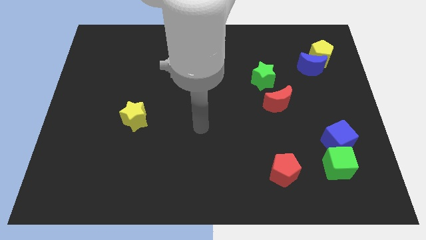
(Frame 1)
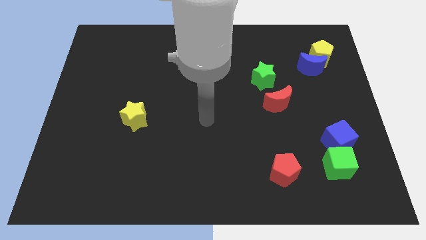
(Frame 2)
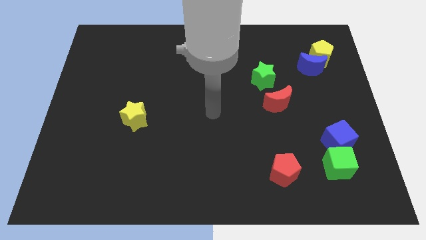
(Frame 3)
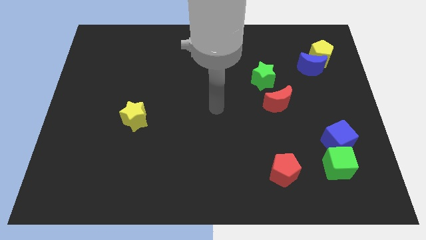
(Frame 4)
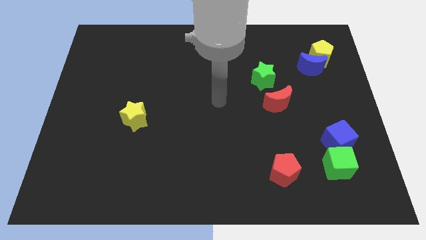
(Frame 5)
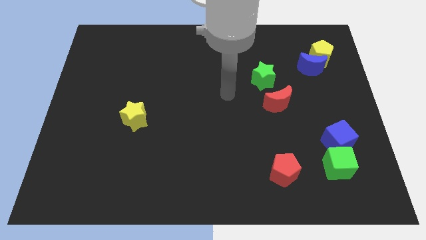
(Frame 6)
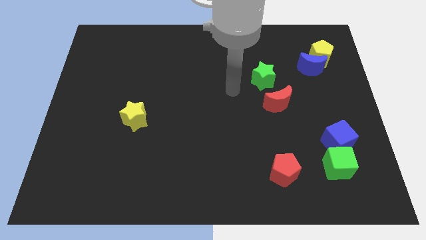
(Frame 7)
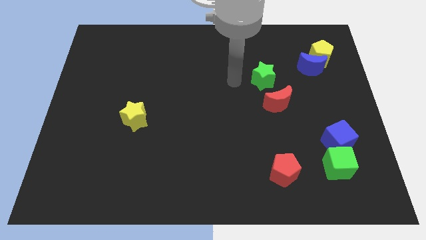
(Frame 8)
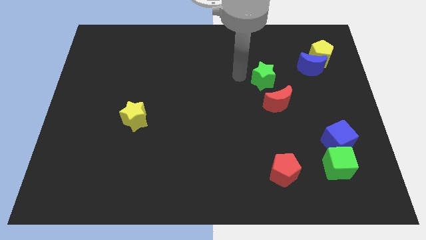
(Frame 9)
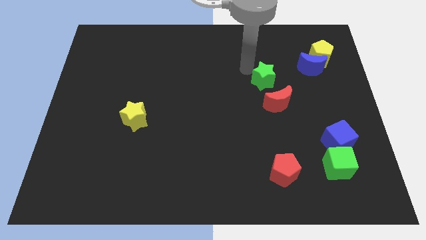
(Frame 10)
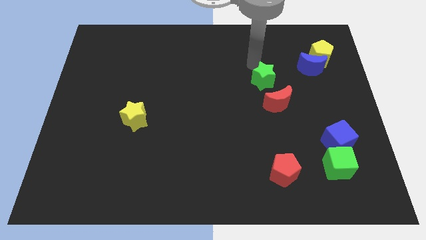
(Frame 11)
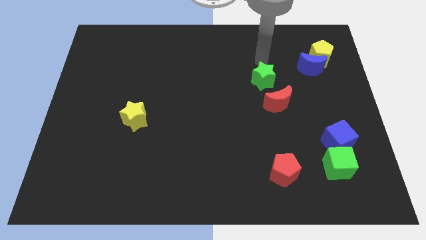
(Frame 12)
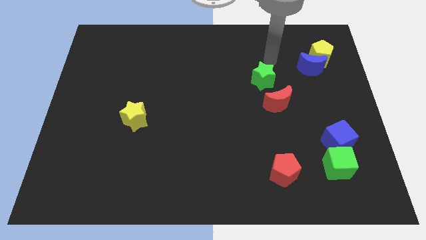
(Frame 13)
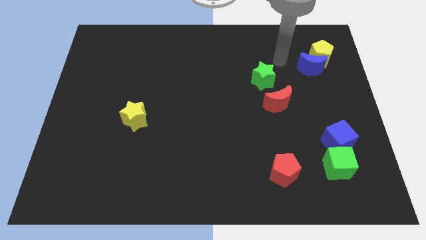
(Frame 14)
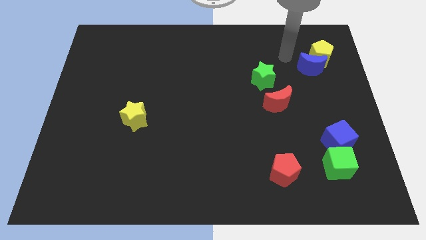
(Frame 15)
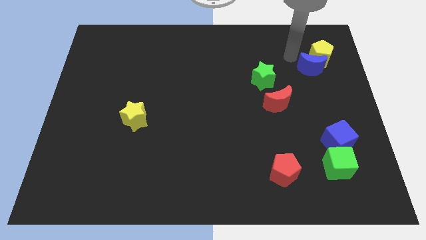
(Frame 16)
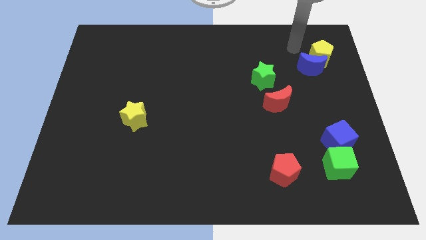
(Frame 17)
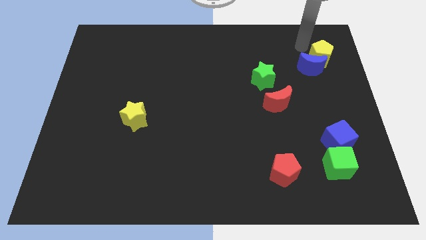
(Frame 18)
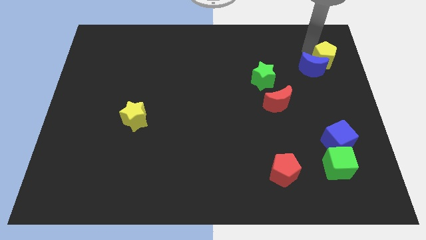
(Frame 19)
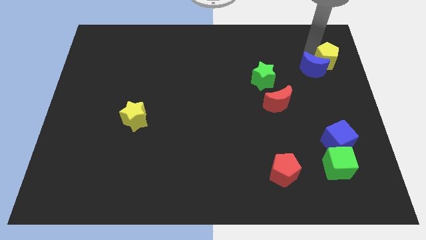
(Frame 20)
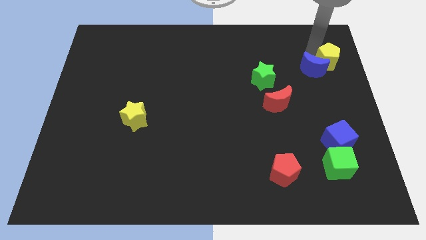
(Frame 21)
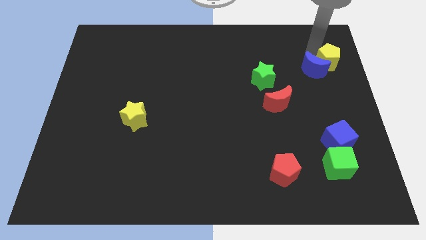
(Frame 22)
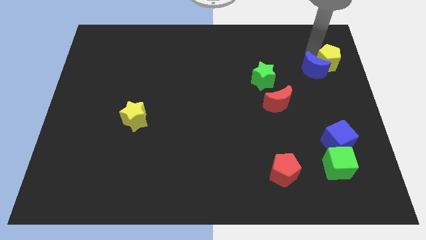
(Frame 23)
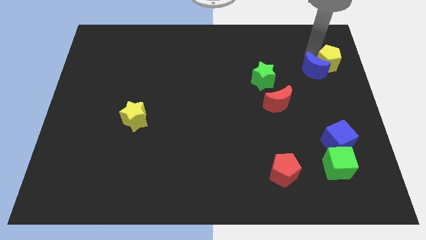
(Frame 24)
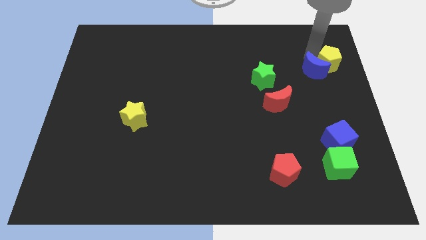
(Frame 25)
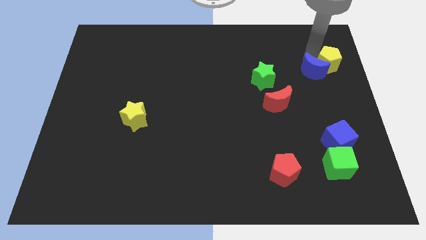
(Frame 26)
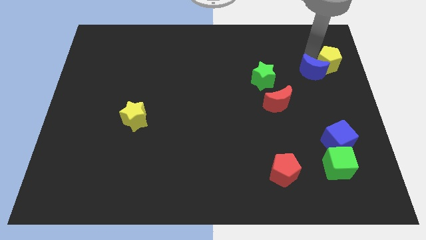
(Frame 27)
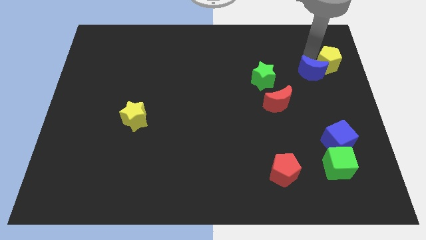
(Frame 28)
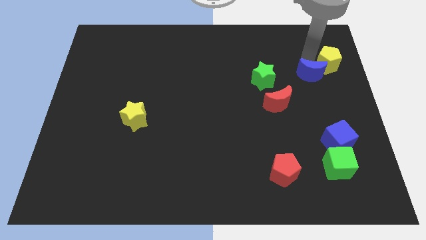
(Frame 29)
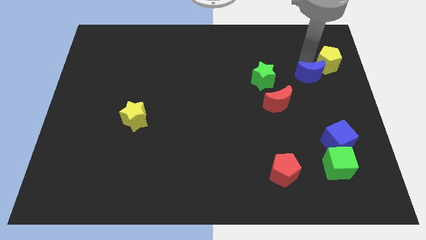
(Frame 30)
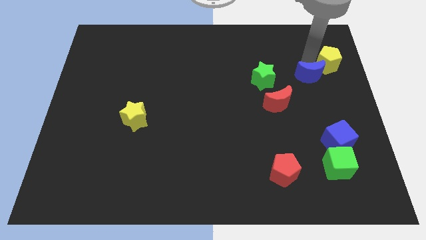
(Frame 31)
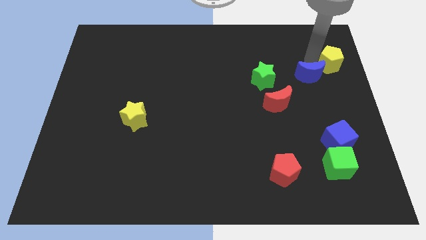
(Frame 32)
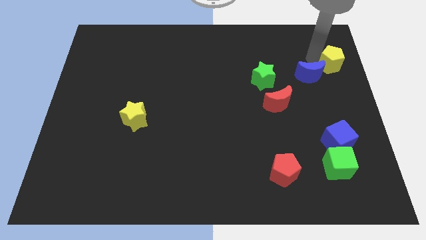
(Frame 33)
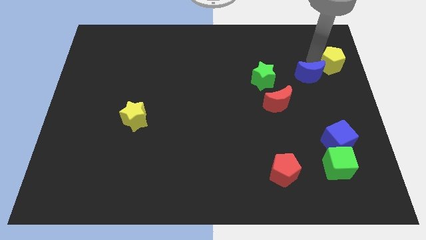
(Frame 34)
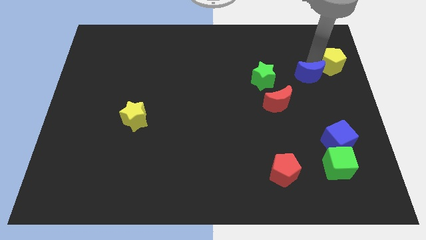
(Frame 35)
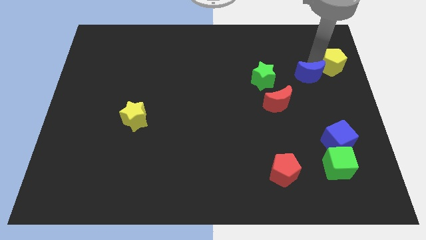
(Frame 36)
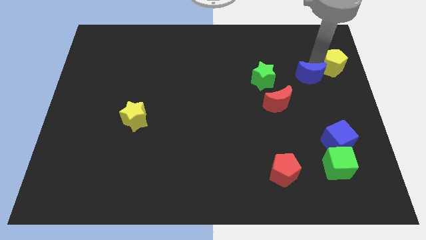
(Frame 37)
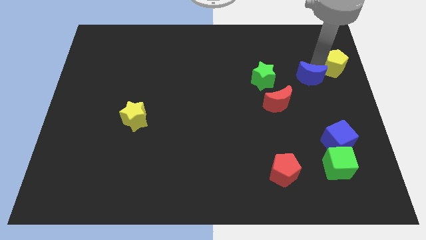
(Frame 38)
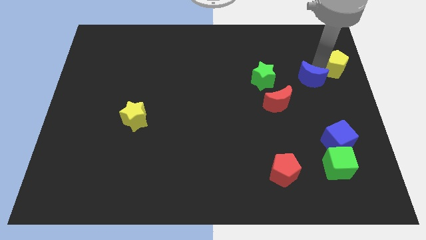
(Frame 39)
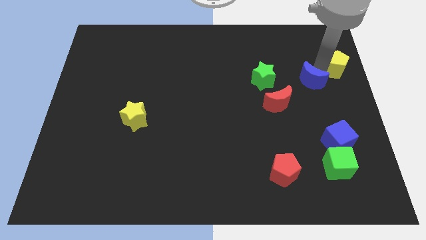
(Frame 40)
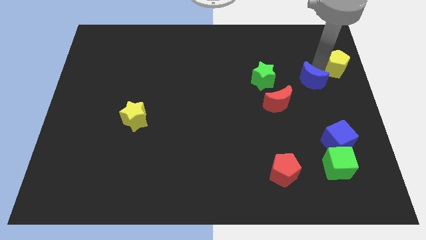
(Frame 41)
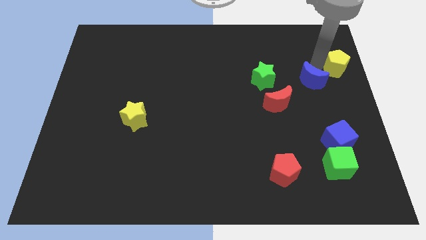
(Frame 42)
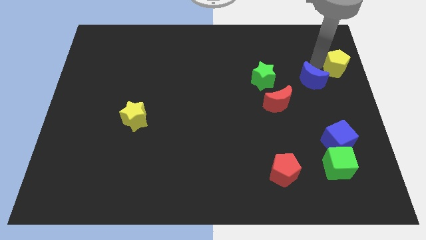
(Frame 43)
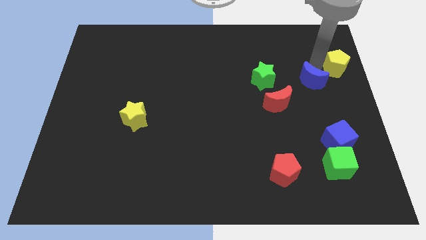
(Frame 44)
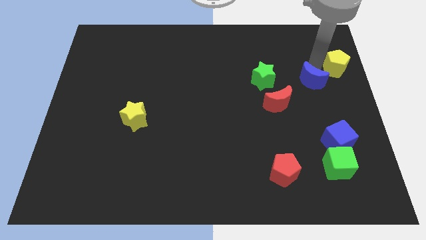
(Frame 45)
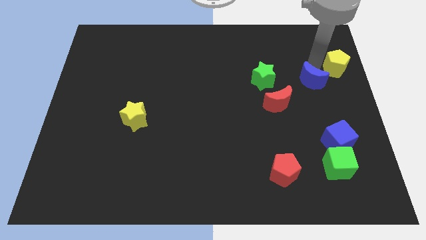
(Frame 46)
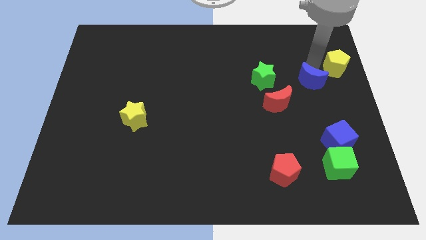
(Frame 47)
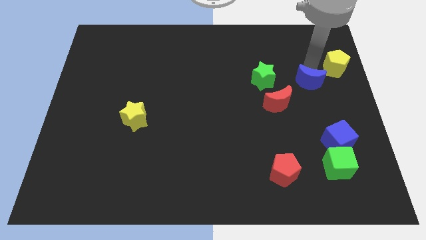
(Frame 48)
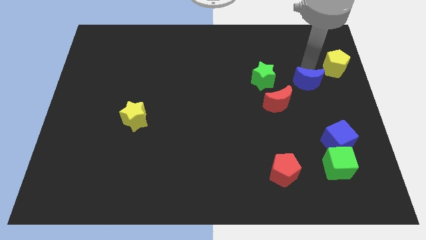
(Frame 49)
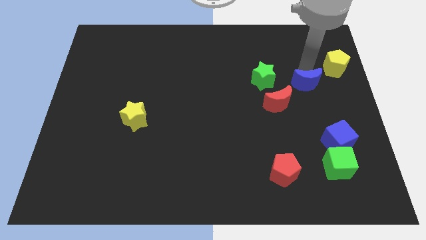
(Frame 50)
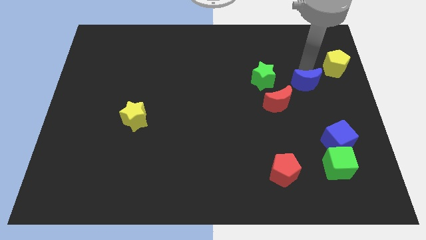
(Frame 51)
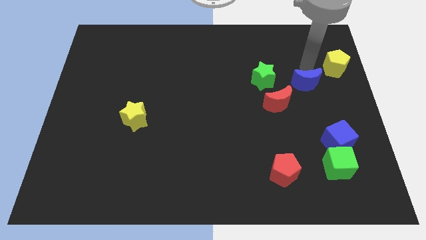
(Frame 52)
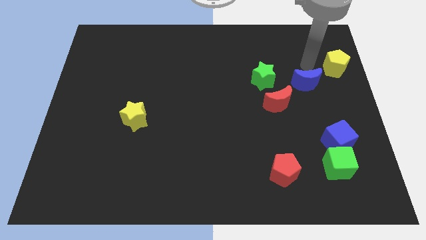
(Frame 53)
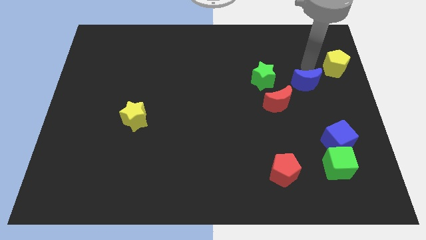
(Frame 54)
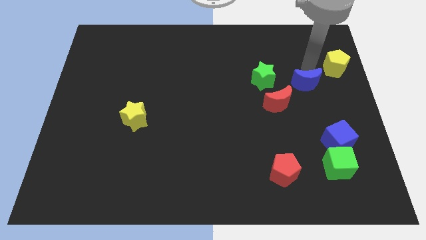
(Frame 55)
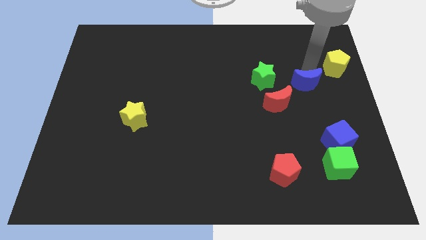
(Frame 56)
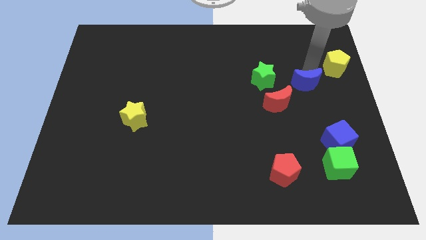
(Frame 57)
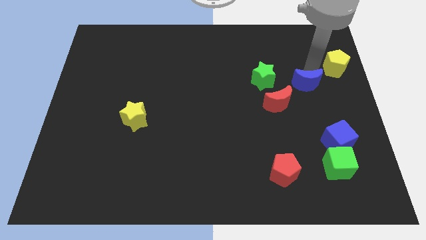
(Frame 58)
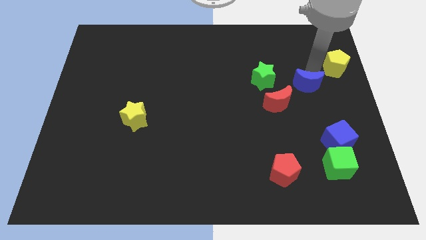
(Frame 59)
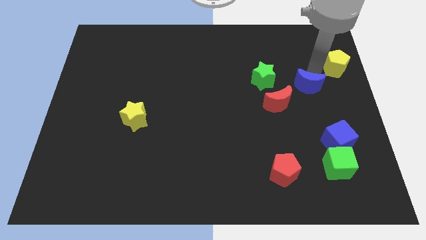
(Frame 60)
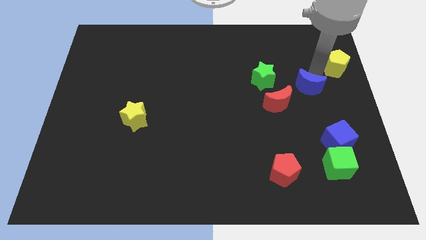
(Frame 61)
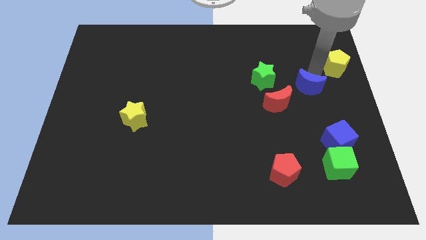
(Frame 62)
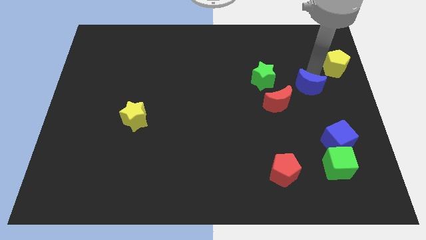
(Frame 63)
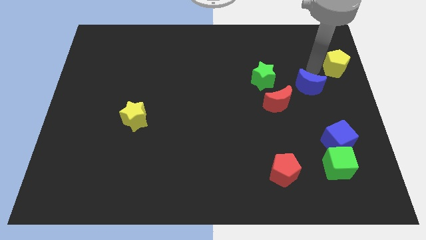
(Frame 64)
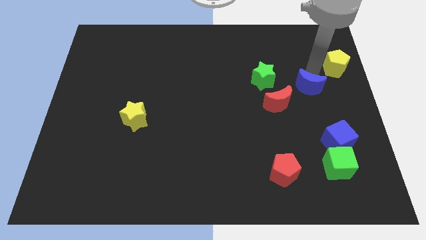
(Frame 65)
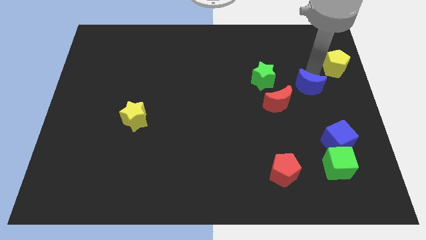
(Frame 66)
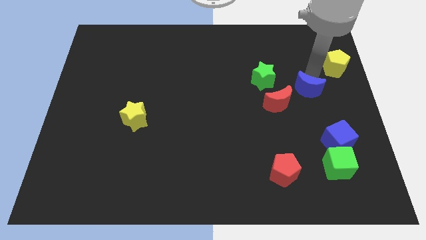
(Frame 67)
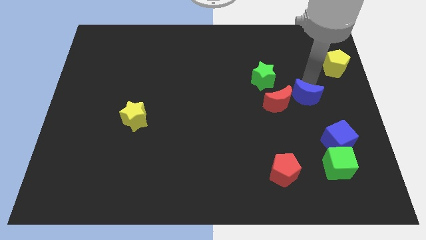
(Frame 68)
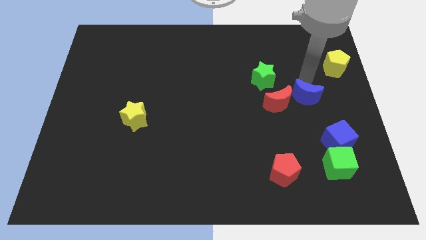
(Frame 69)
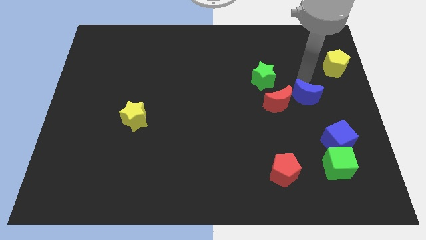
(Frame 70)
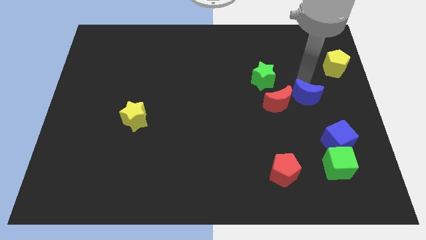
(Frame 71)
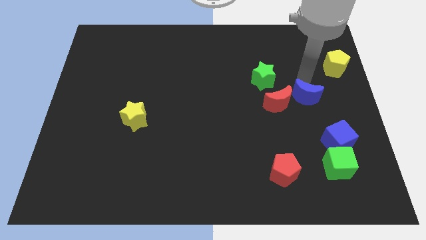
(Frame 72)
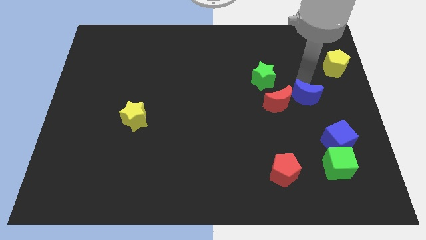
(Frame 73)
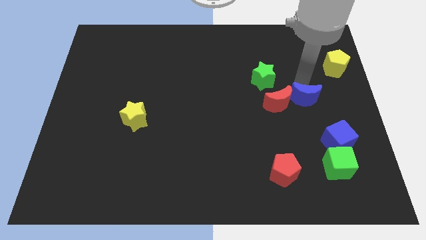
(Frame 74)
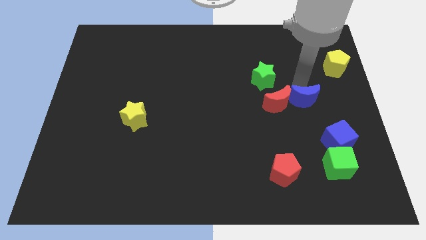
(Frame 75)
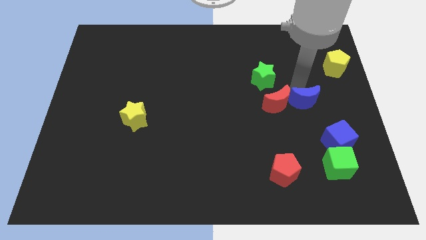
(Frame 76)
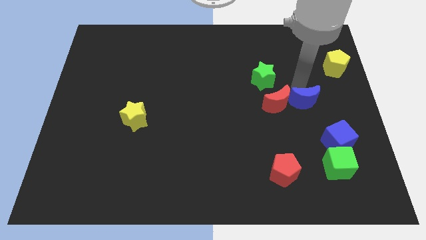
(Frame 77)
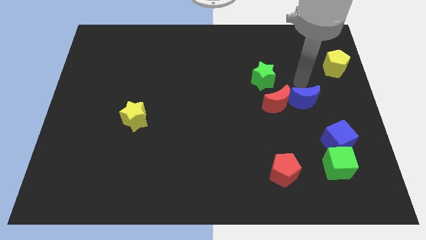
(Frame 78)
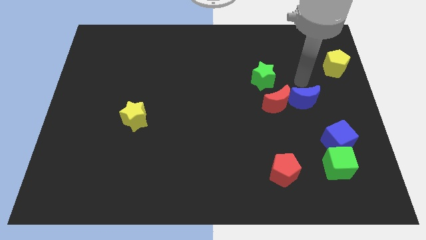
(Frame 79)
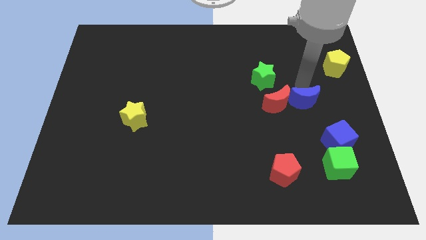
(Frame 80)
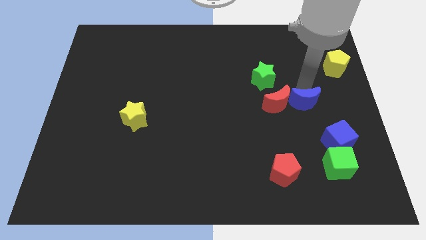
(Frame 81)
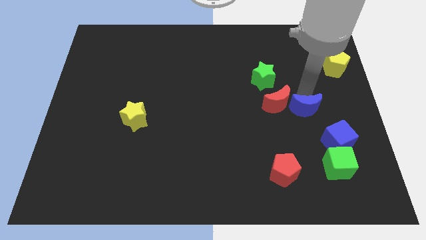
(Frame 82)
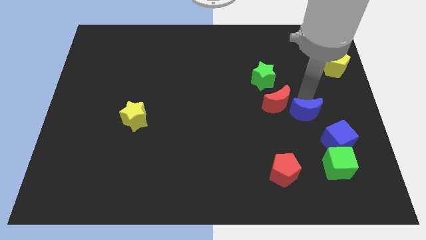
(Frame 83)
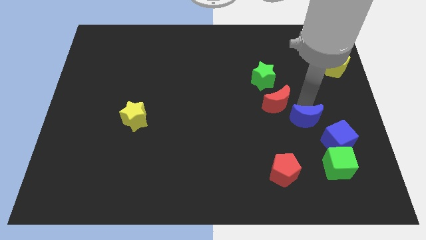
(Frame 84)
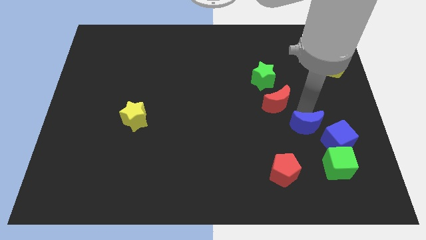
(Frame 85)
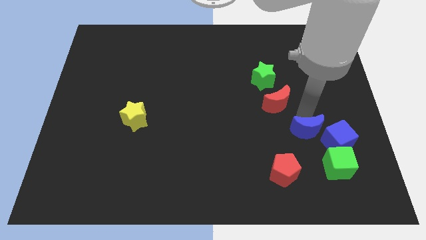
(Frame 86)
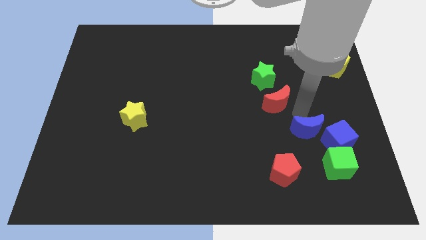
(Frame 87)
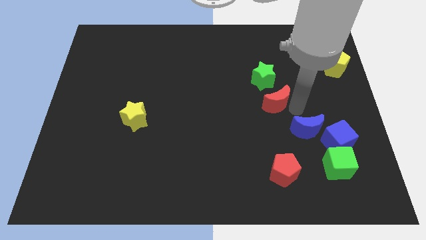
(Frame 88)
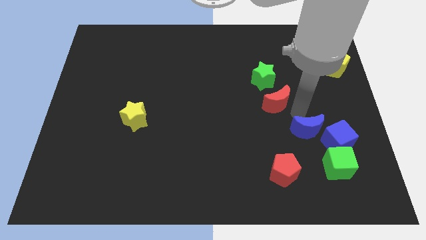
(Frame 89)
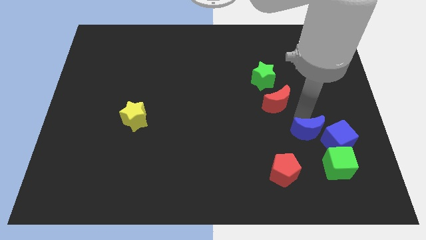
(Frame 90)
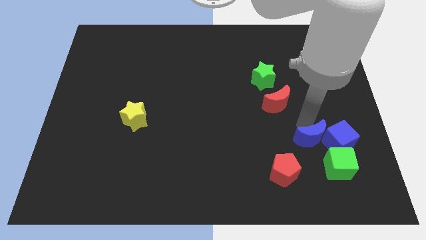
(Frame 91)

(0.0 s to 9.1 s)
move the blue moon downwards
